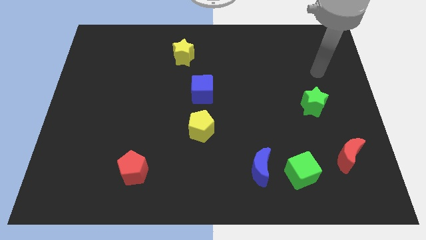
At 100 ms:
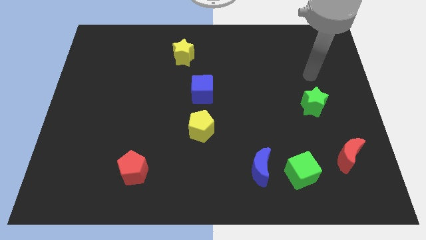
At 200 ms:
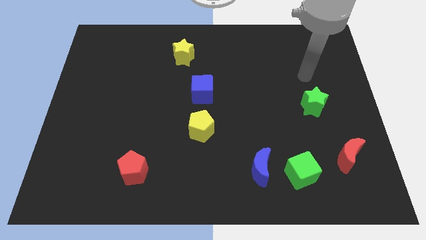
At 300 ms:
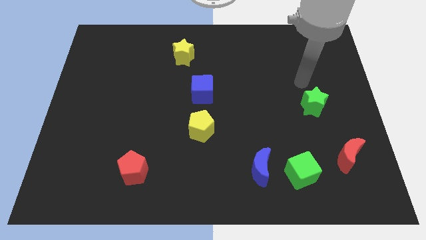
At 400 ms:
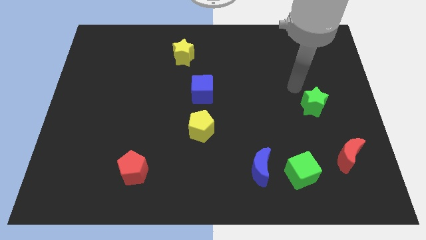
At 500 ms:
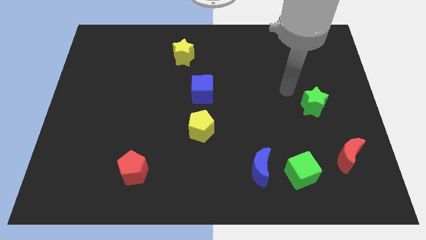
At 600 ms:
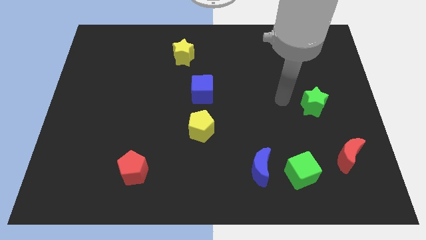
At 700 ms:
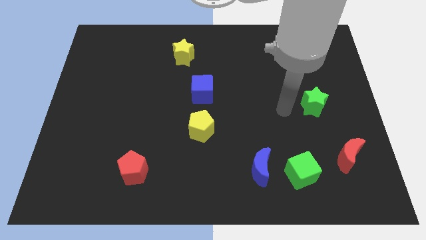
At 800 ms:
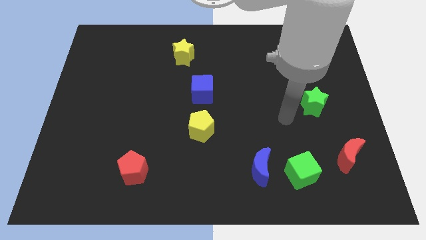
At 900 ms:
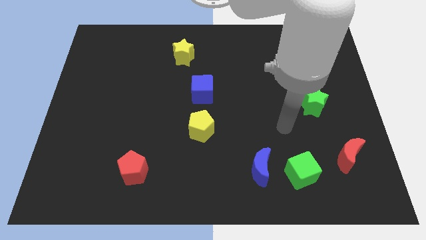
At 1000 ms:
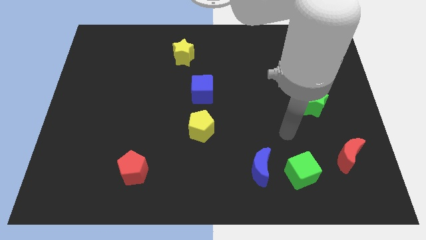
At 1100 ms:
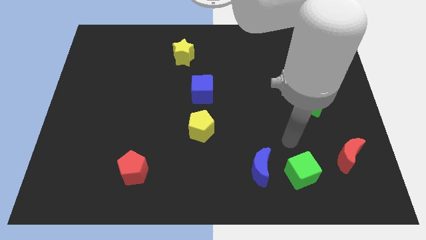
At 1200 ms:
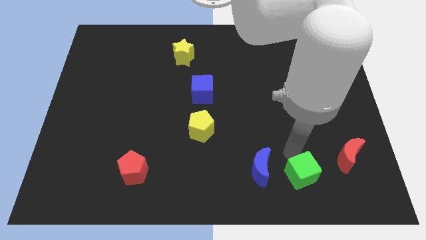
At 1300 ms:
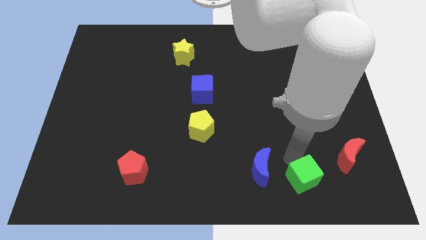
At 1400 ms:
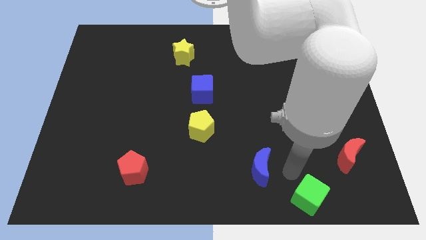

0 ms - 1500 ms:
pull the blue moon apart from the green cube

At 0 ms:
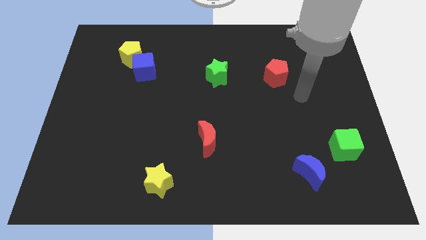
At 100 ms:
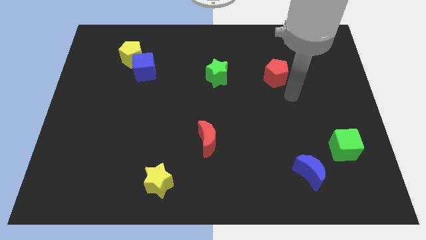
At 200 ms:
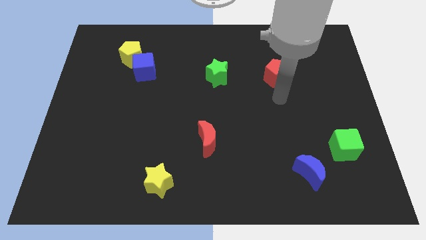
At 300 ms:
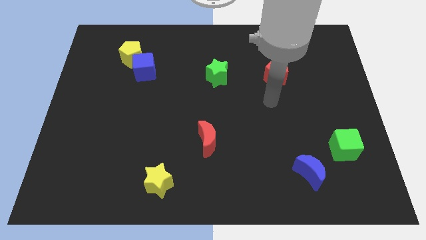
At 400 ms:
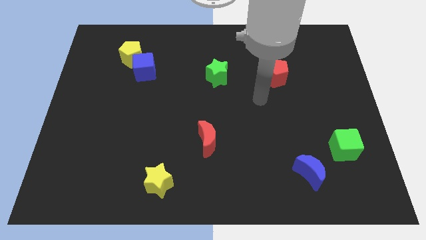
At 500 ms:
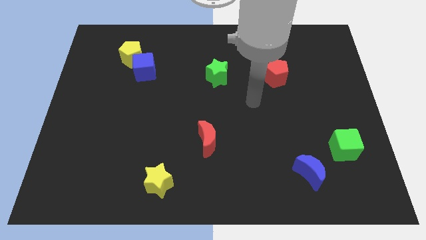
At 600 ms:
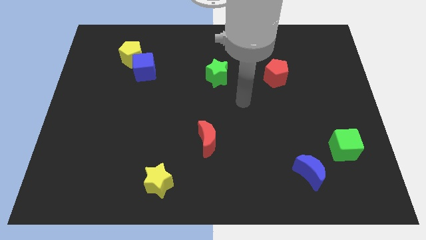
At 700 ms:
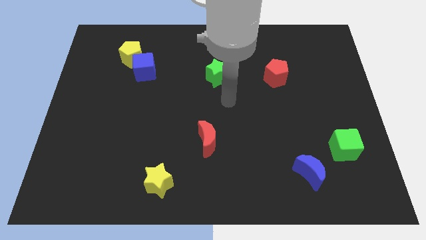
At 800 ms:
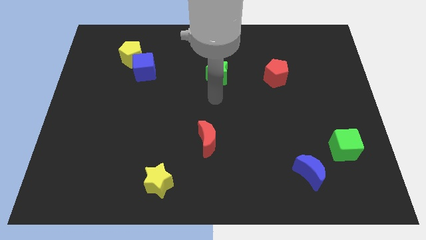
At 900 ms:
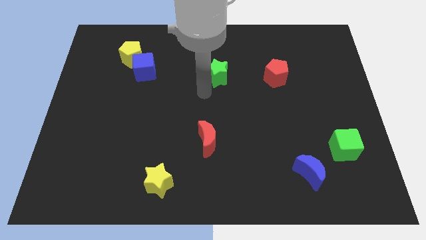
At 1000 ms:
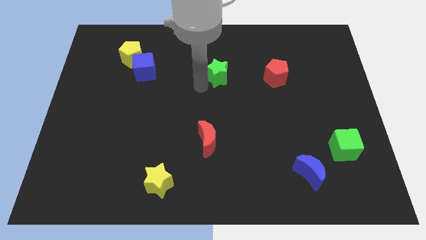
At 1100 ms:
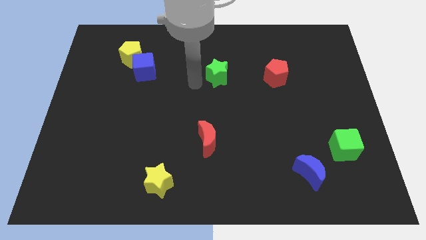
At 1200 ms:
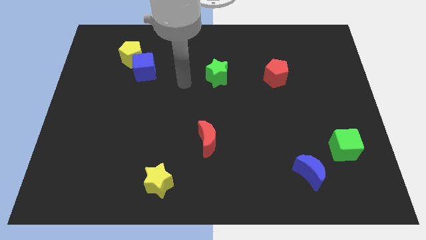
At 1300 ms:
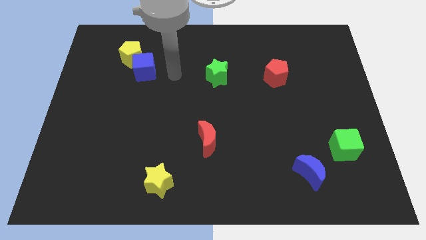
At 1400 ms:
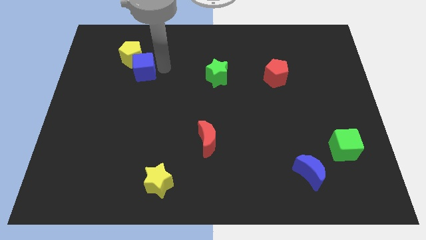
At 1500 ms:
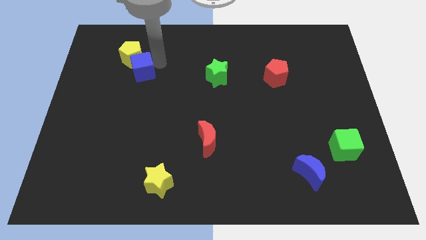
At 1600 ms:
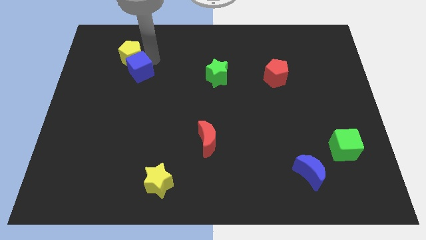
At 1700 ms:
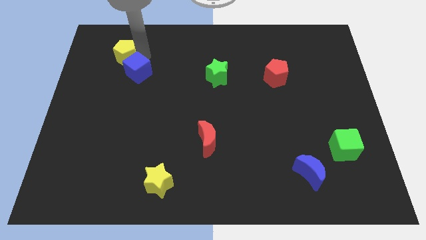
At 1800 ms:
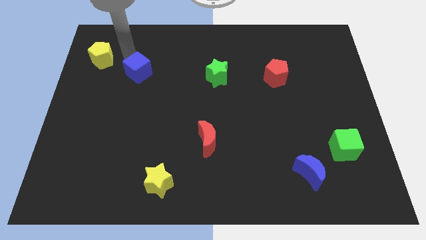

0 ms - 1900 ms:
move the blue cube away from the yellow pentagon

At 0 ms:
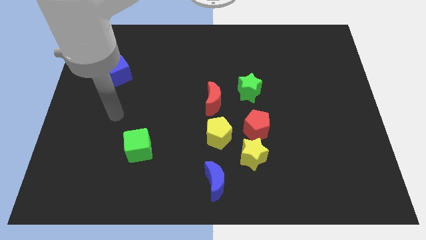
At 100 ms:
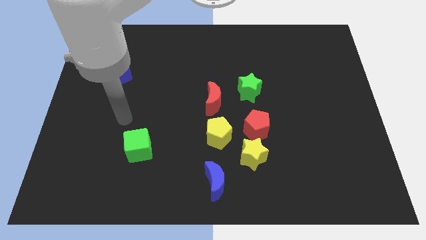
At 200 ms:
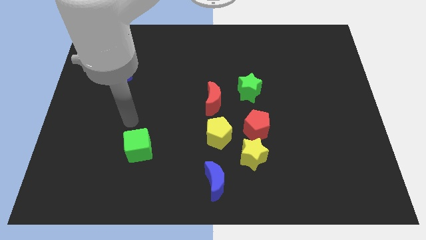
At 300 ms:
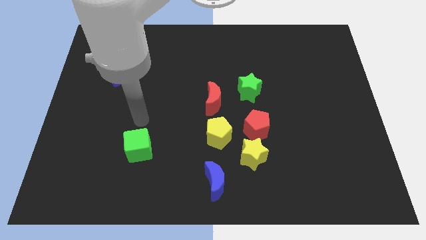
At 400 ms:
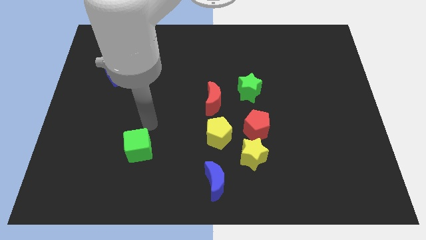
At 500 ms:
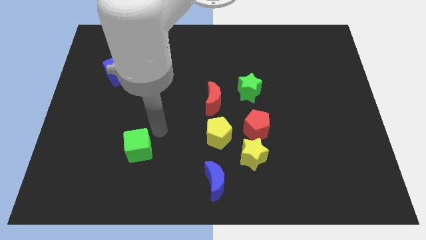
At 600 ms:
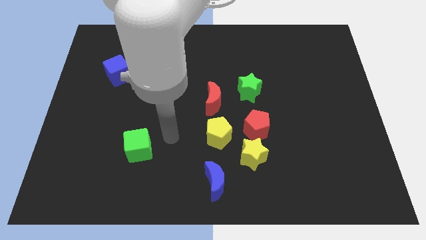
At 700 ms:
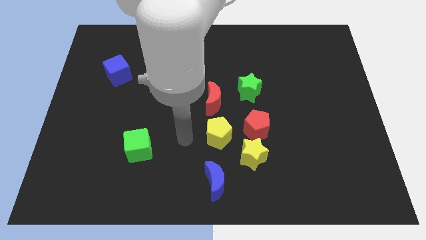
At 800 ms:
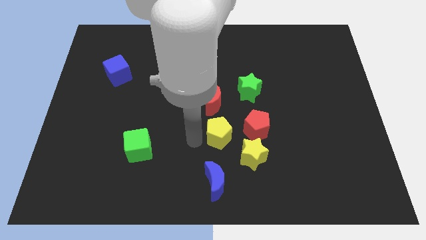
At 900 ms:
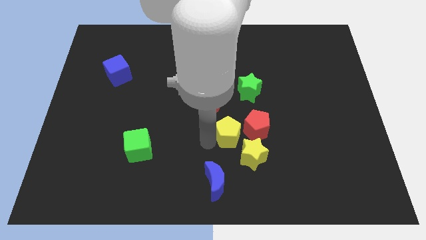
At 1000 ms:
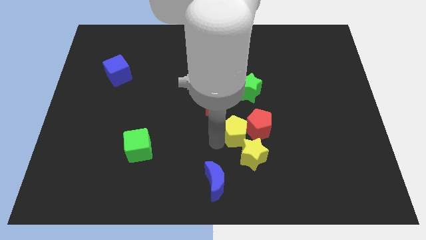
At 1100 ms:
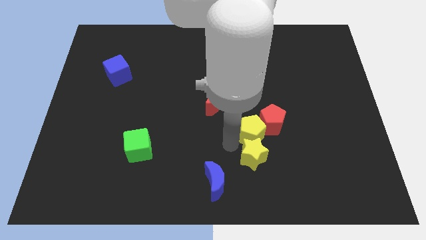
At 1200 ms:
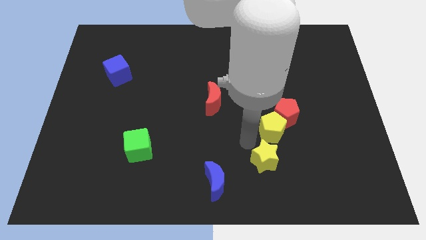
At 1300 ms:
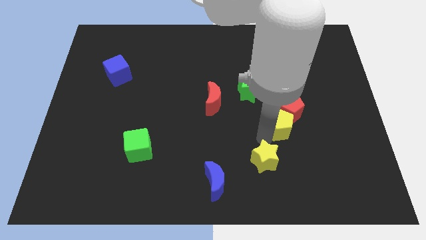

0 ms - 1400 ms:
move the red pentagon away from the yellow star and yellow pentagon

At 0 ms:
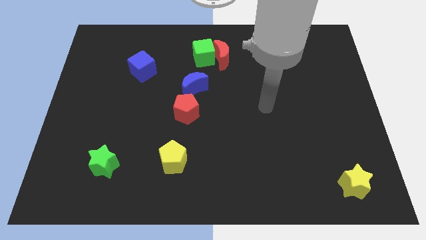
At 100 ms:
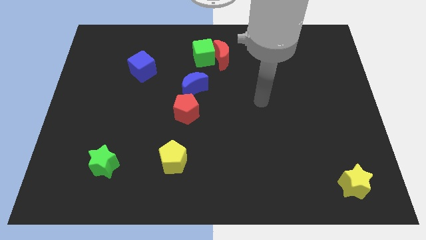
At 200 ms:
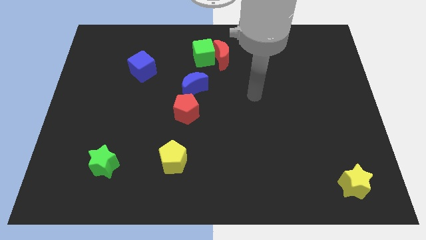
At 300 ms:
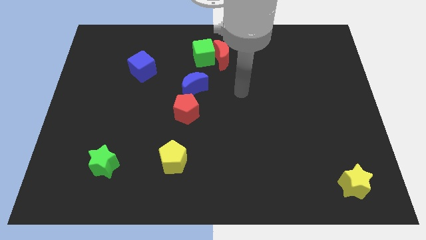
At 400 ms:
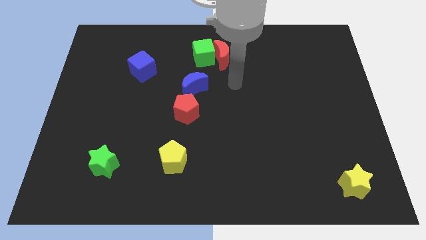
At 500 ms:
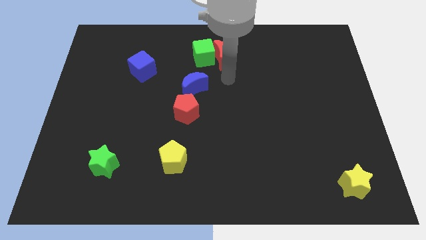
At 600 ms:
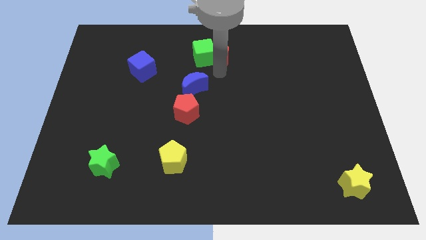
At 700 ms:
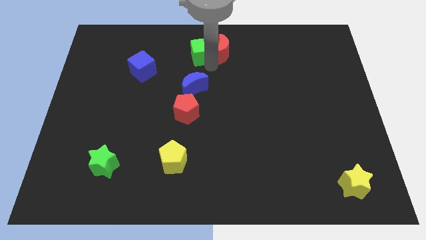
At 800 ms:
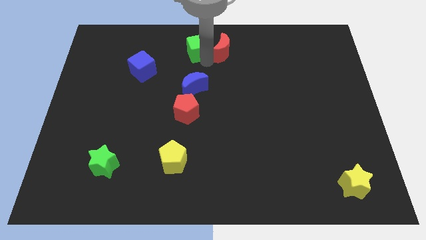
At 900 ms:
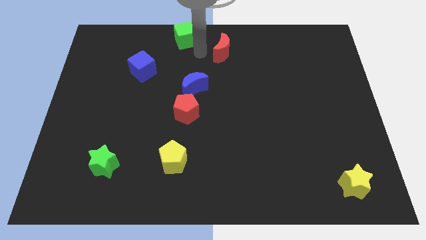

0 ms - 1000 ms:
separate the red moon from the green cube

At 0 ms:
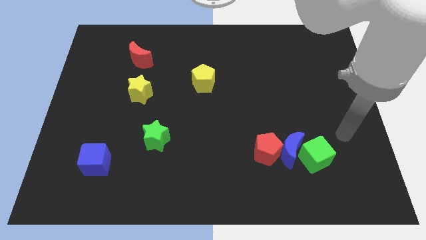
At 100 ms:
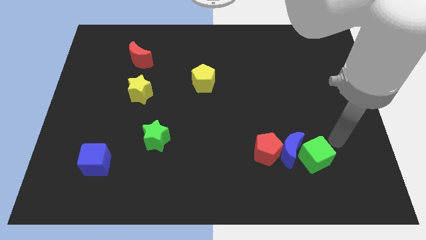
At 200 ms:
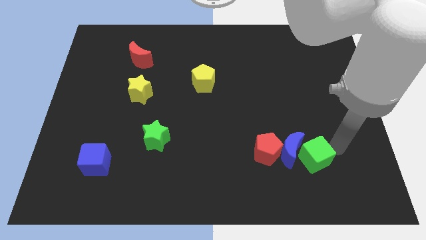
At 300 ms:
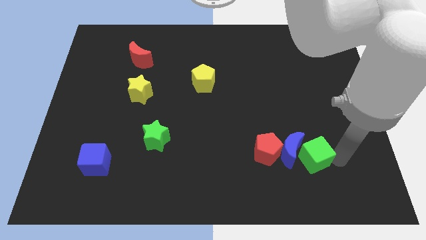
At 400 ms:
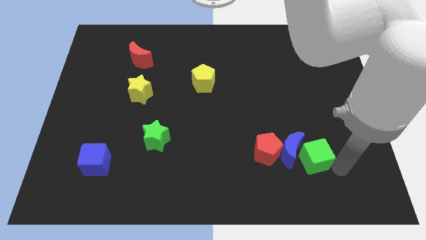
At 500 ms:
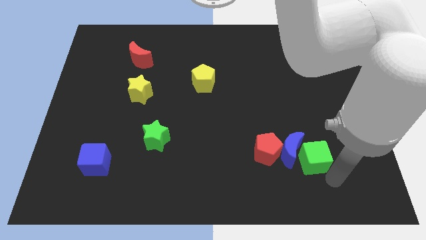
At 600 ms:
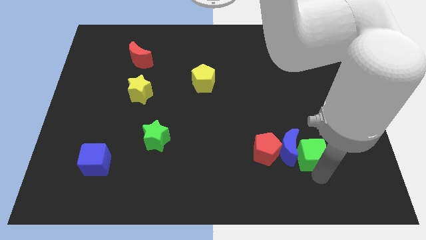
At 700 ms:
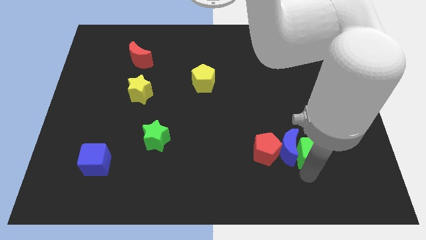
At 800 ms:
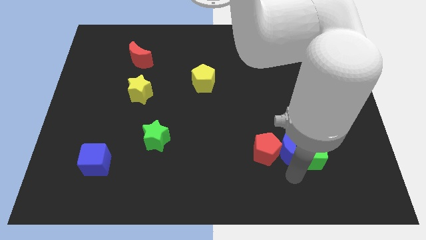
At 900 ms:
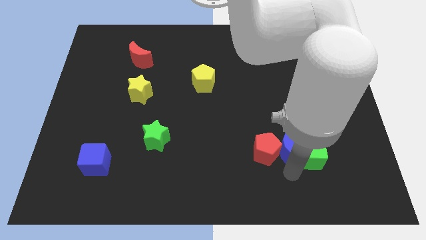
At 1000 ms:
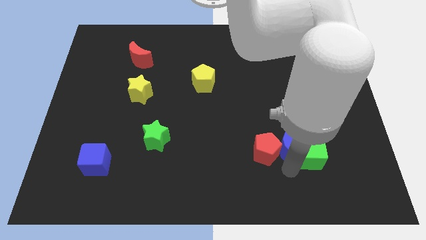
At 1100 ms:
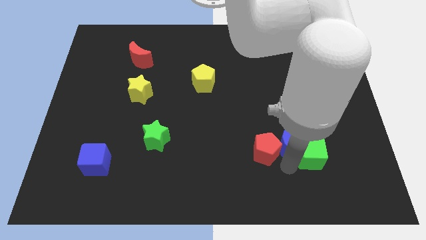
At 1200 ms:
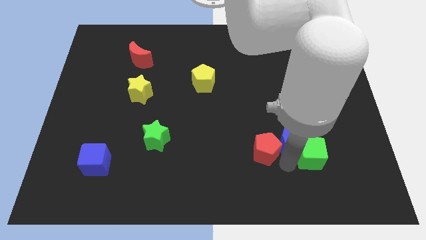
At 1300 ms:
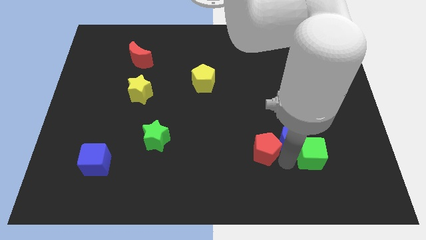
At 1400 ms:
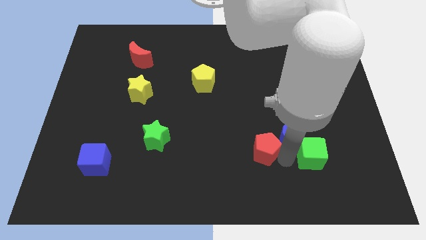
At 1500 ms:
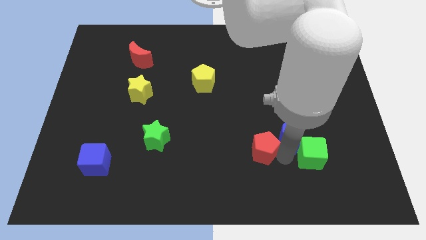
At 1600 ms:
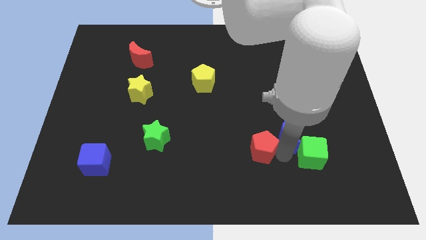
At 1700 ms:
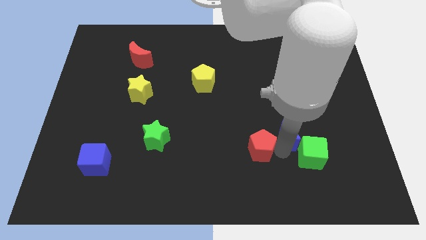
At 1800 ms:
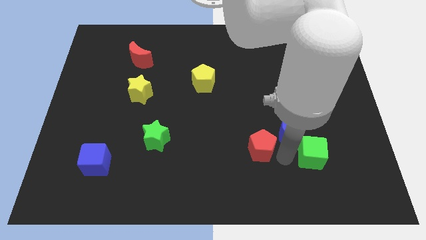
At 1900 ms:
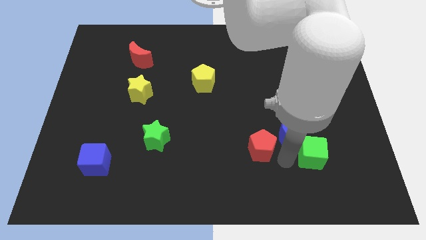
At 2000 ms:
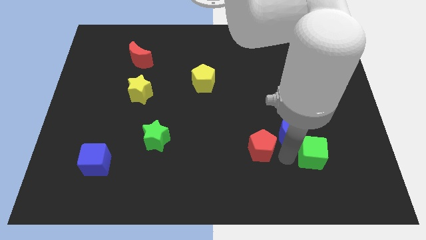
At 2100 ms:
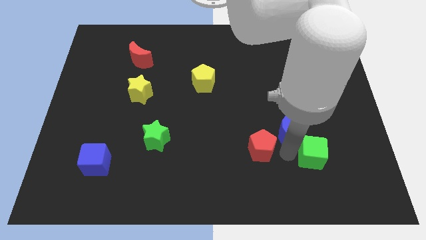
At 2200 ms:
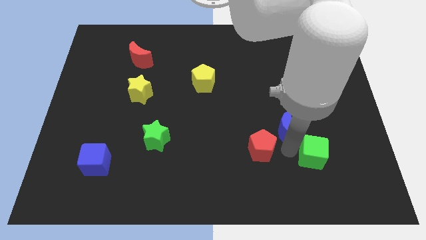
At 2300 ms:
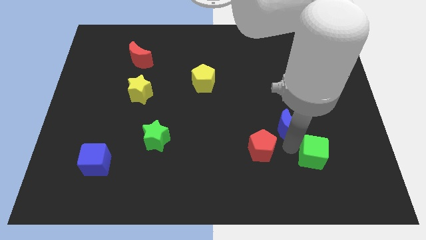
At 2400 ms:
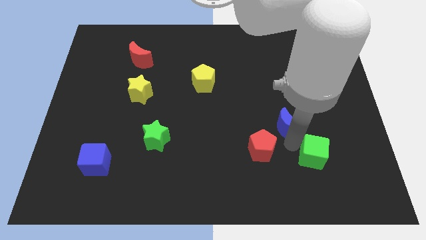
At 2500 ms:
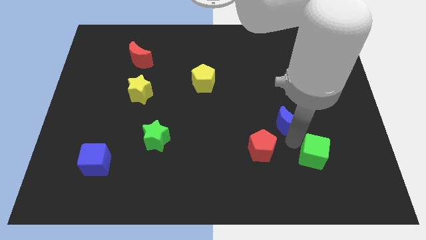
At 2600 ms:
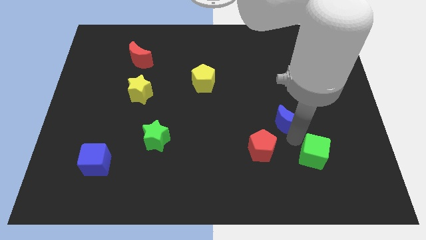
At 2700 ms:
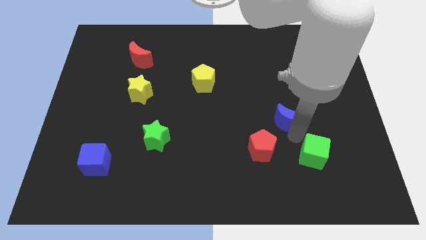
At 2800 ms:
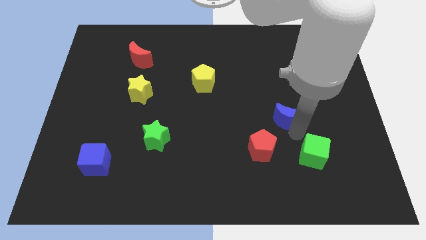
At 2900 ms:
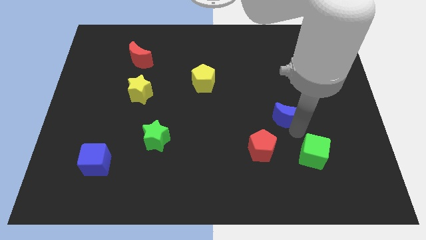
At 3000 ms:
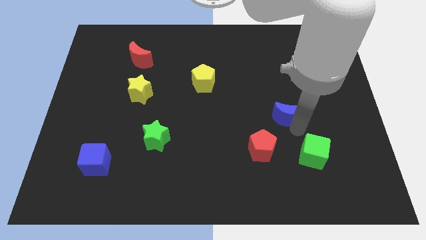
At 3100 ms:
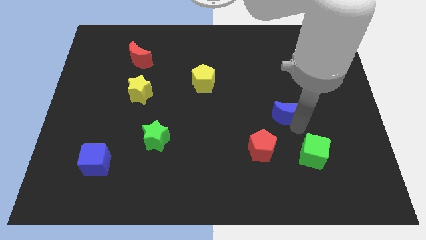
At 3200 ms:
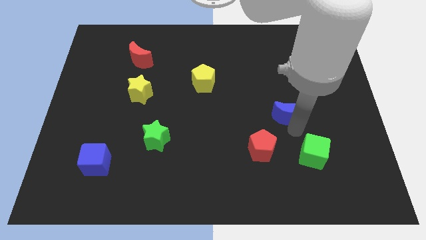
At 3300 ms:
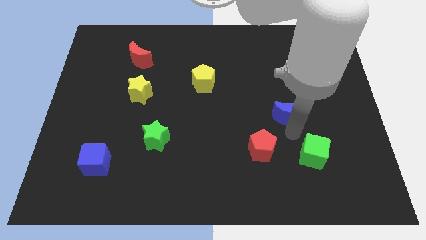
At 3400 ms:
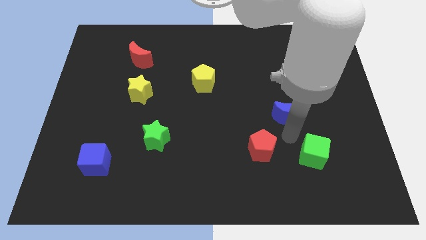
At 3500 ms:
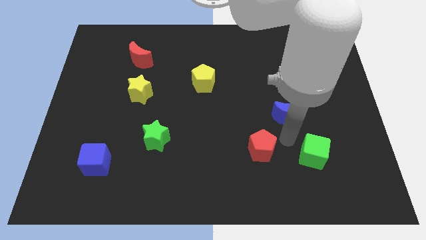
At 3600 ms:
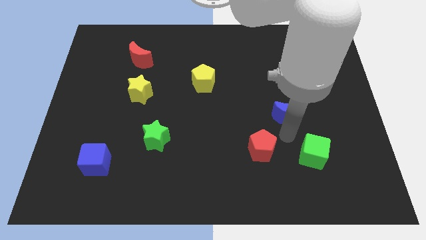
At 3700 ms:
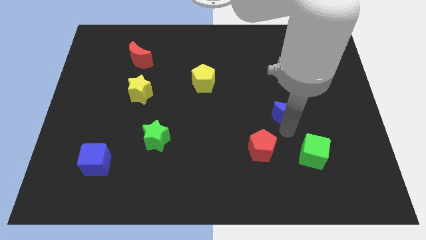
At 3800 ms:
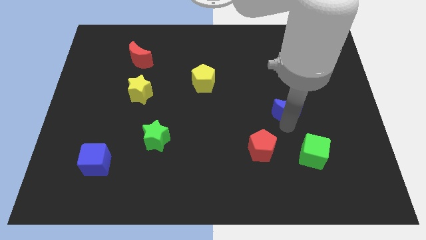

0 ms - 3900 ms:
pull the blue moon apart from the red pentagon and green cube
